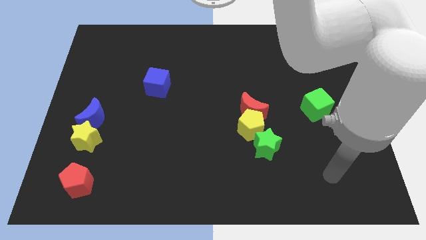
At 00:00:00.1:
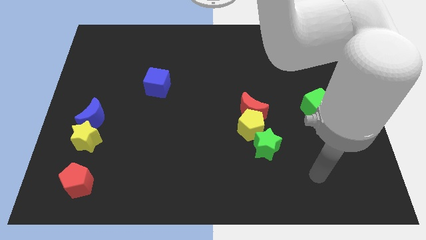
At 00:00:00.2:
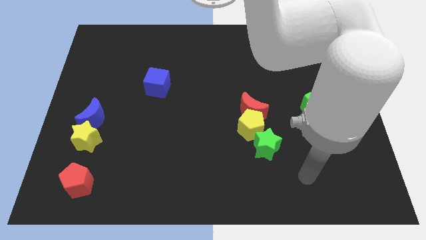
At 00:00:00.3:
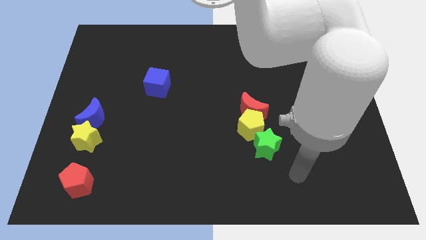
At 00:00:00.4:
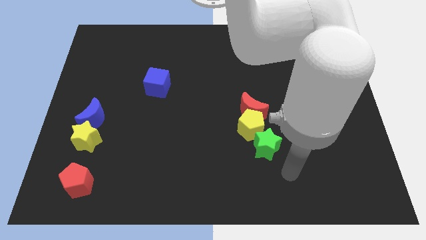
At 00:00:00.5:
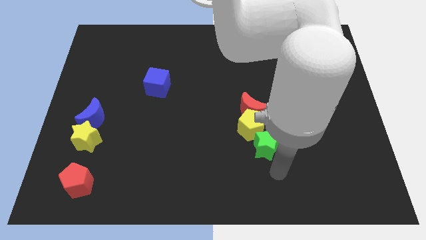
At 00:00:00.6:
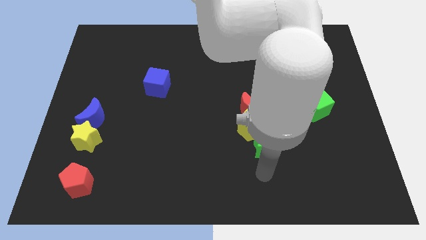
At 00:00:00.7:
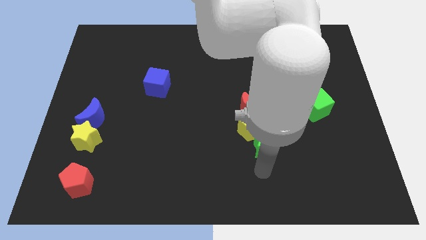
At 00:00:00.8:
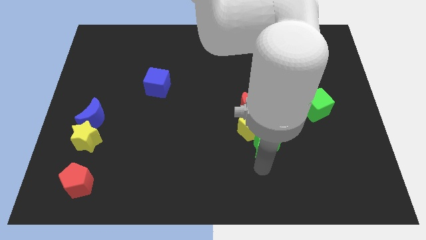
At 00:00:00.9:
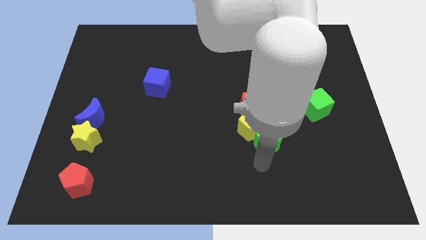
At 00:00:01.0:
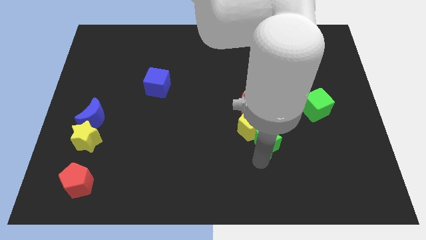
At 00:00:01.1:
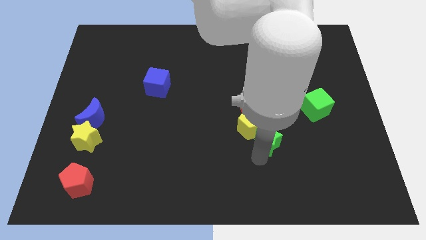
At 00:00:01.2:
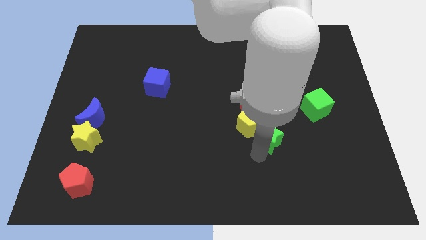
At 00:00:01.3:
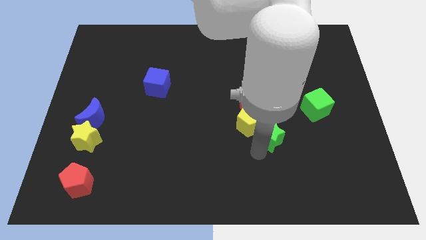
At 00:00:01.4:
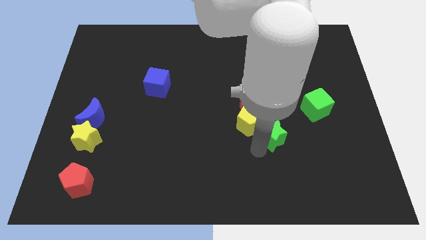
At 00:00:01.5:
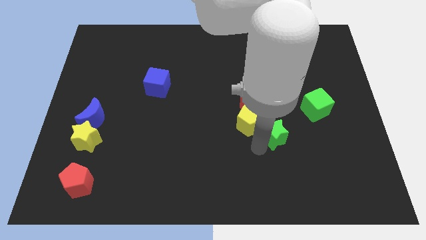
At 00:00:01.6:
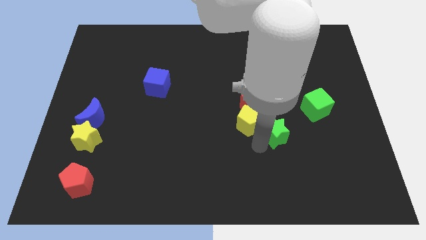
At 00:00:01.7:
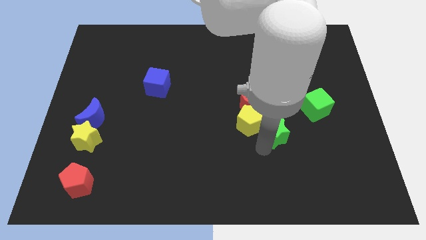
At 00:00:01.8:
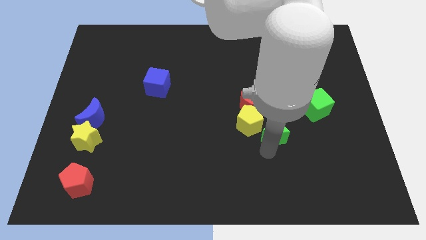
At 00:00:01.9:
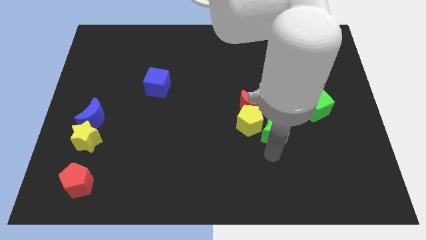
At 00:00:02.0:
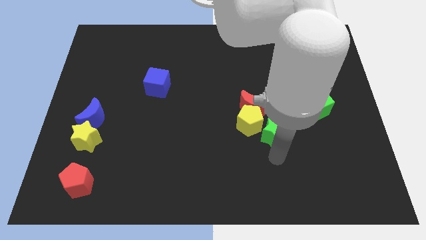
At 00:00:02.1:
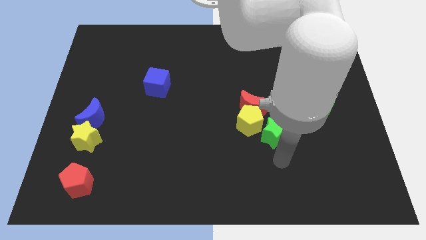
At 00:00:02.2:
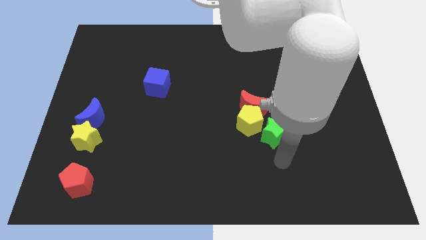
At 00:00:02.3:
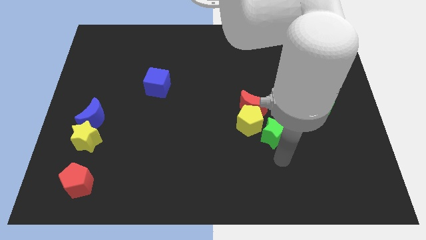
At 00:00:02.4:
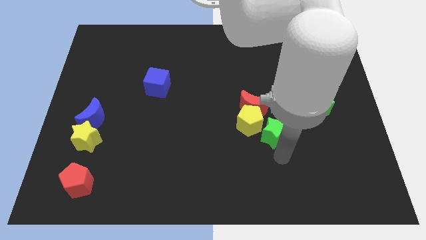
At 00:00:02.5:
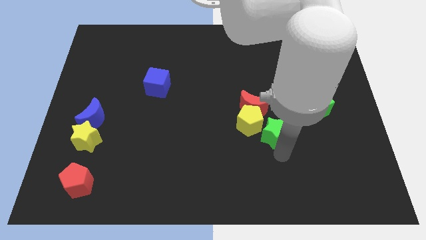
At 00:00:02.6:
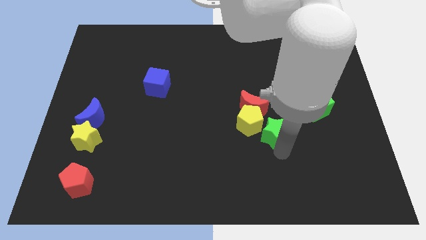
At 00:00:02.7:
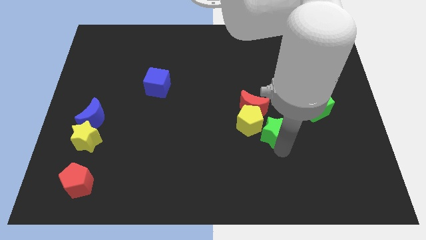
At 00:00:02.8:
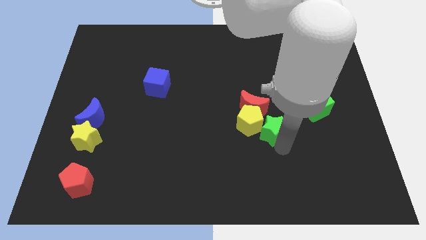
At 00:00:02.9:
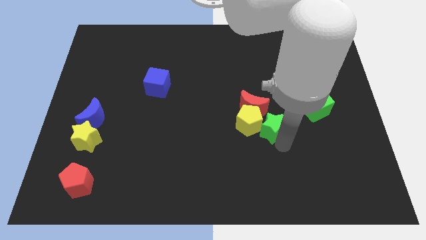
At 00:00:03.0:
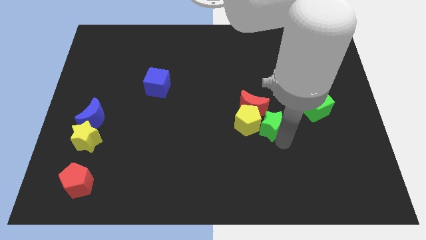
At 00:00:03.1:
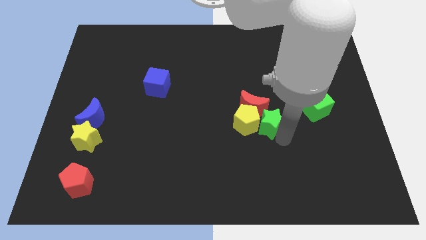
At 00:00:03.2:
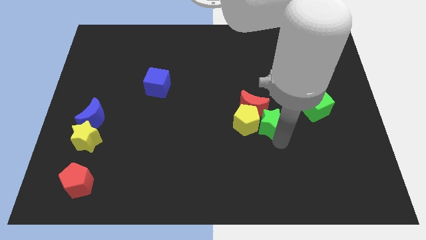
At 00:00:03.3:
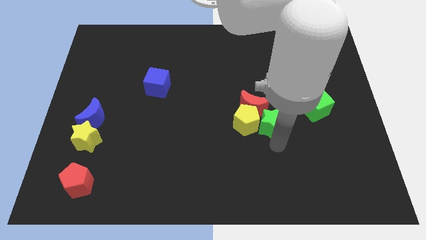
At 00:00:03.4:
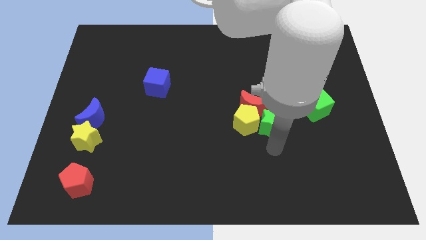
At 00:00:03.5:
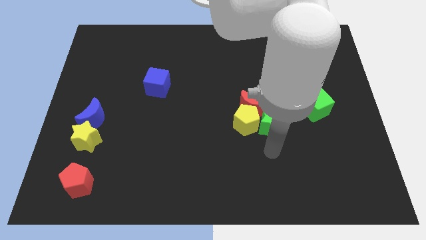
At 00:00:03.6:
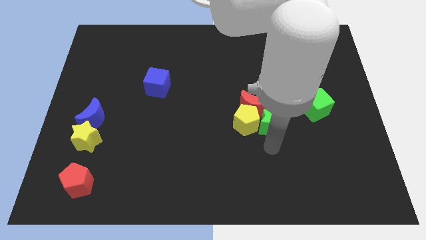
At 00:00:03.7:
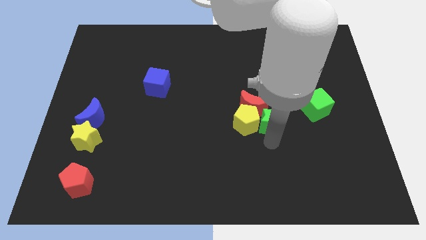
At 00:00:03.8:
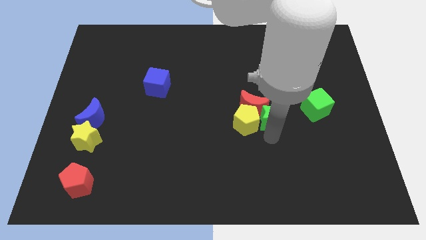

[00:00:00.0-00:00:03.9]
slightly move the green star up

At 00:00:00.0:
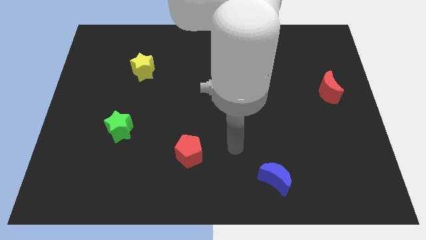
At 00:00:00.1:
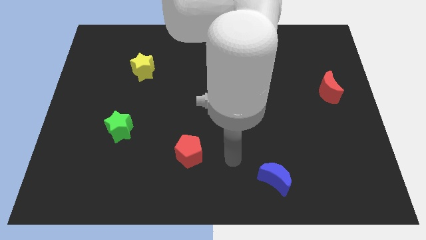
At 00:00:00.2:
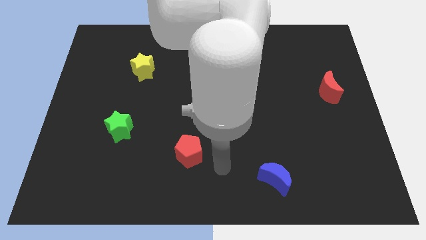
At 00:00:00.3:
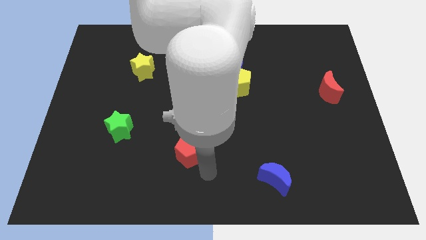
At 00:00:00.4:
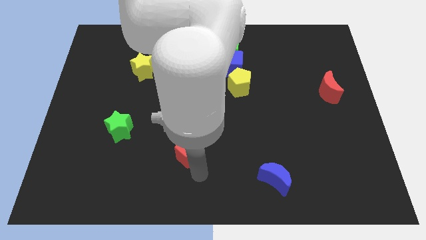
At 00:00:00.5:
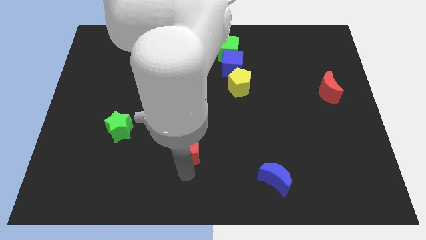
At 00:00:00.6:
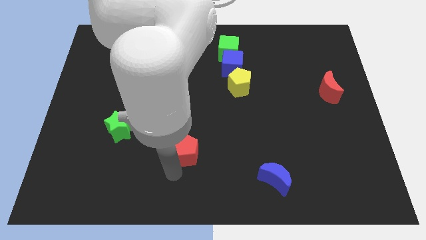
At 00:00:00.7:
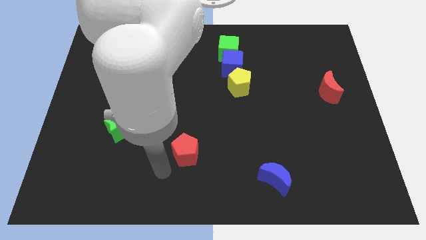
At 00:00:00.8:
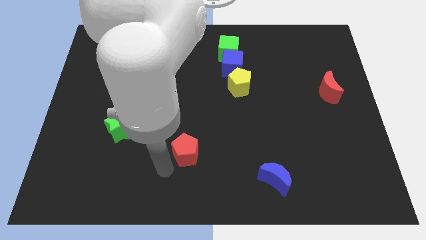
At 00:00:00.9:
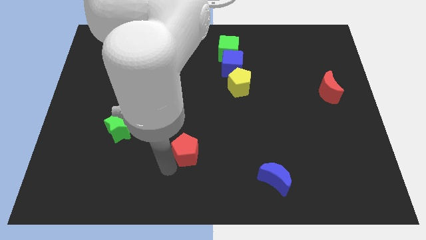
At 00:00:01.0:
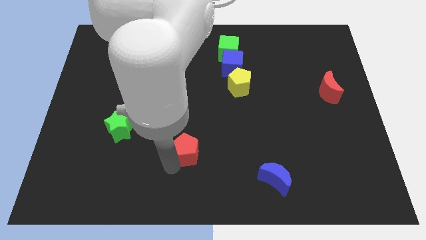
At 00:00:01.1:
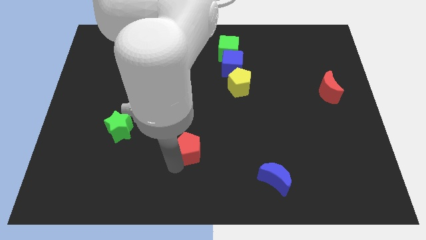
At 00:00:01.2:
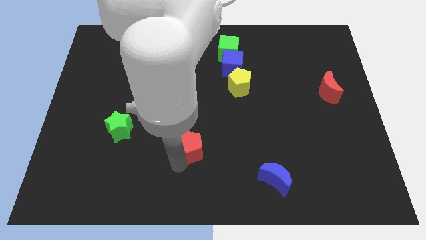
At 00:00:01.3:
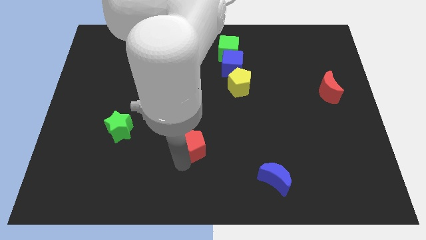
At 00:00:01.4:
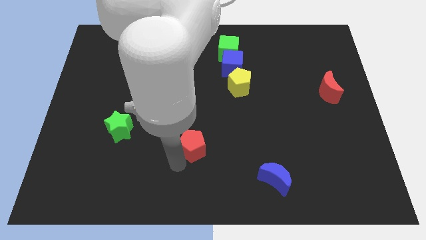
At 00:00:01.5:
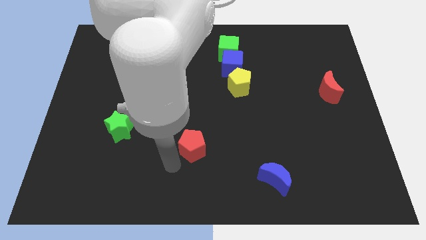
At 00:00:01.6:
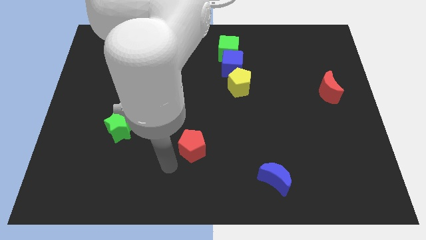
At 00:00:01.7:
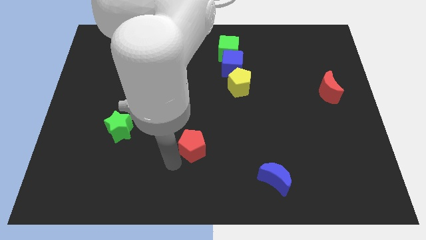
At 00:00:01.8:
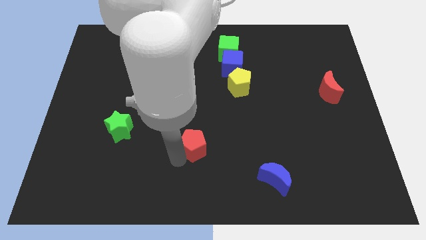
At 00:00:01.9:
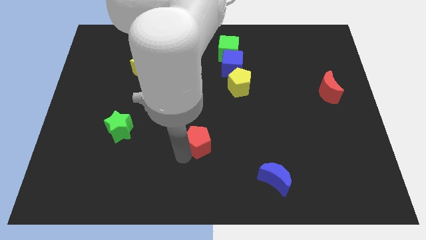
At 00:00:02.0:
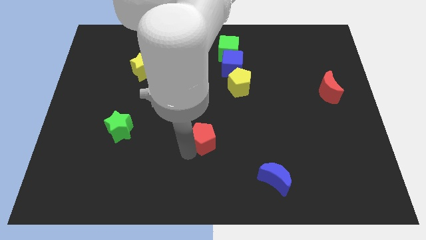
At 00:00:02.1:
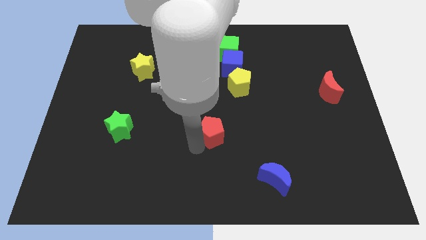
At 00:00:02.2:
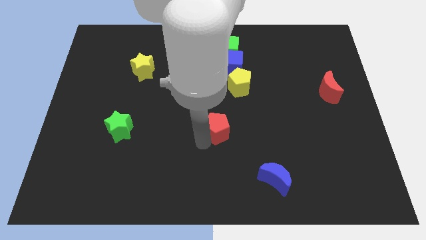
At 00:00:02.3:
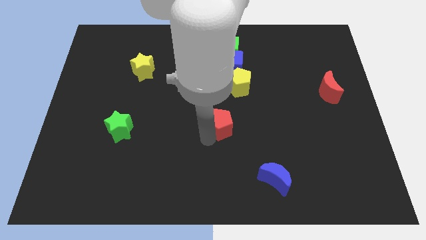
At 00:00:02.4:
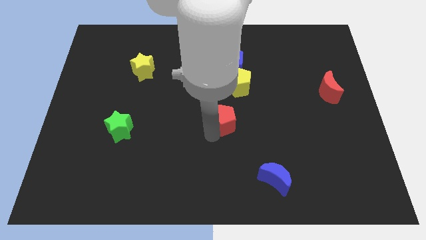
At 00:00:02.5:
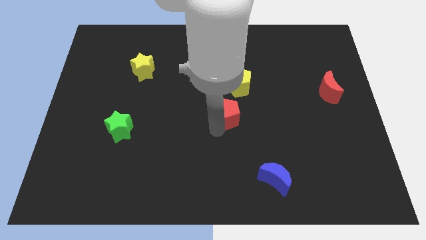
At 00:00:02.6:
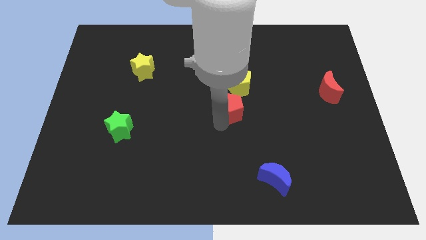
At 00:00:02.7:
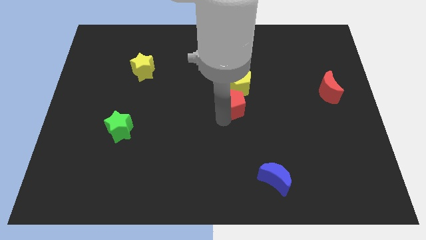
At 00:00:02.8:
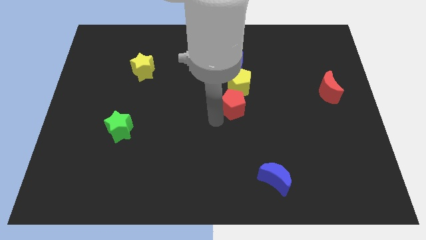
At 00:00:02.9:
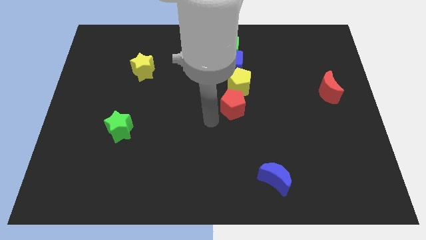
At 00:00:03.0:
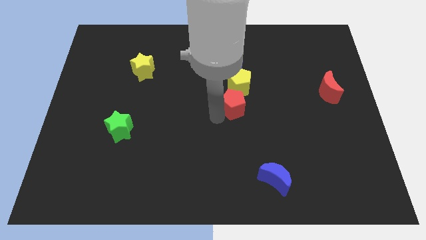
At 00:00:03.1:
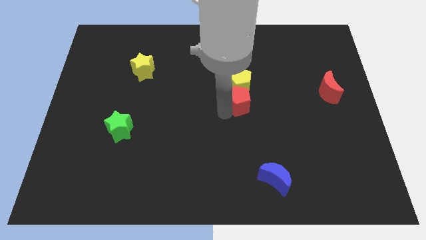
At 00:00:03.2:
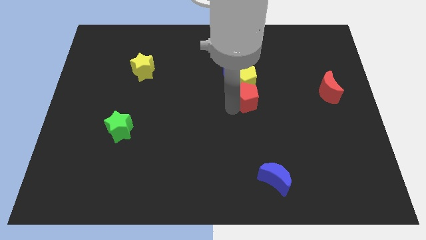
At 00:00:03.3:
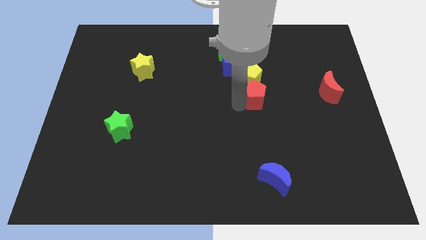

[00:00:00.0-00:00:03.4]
move the red pentagon up and to the right

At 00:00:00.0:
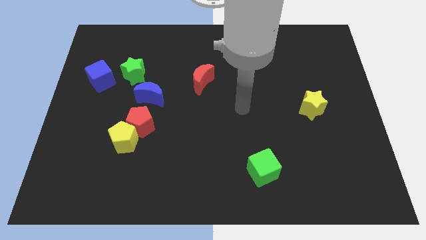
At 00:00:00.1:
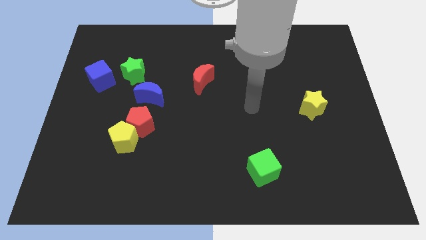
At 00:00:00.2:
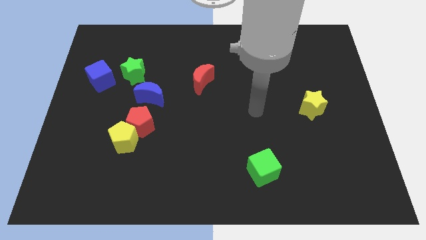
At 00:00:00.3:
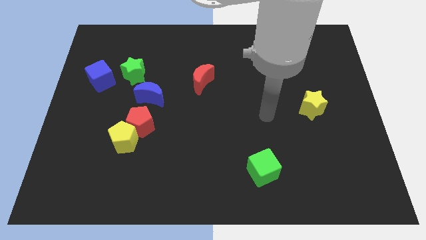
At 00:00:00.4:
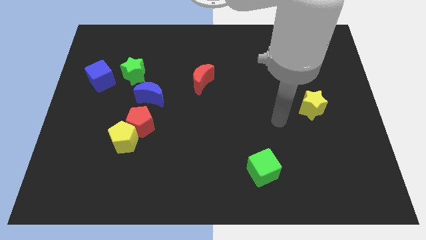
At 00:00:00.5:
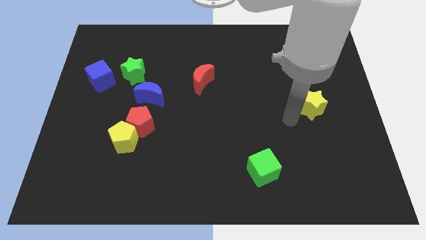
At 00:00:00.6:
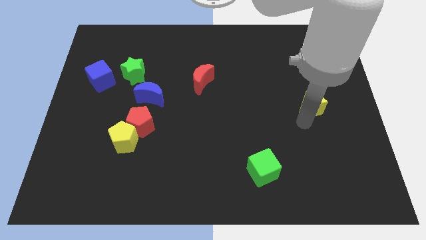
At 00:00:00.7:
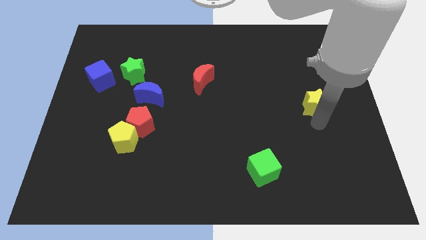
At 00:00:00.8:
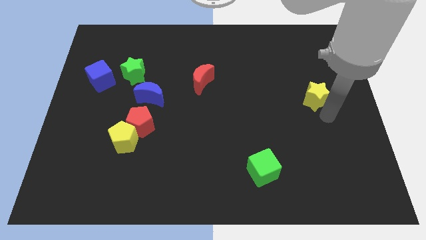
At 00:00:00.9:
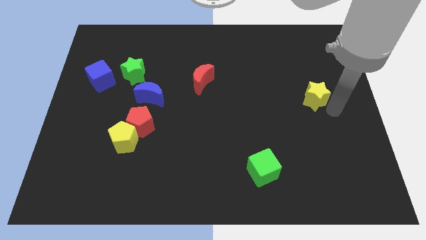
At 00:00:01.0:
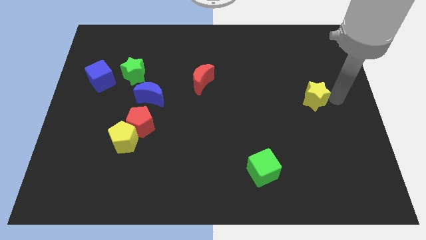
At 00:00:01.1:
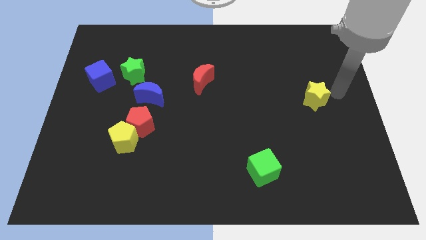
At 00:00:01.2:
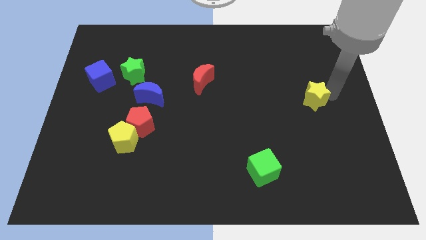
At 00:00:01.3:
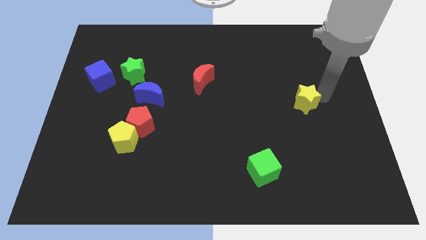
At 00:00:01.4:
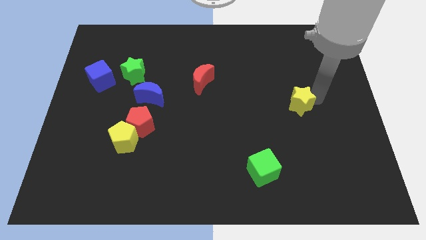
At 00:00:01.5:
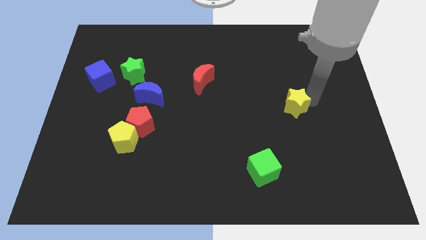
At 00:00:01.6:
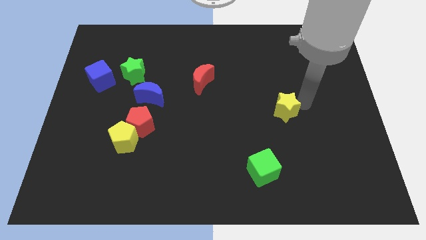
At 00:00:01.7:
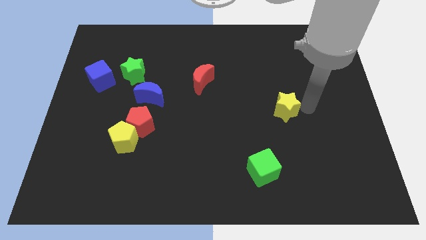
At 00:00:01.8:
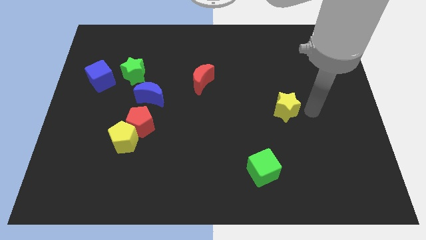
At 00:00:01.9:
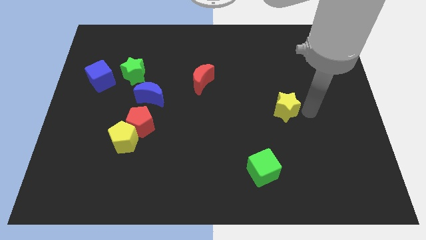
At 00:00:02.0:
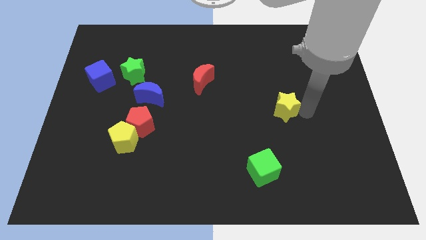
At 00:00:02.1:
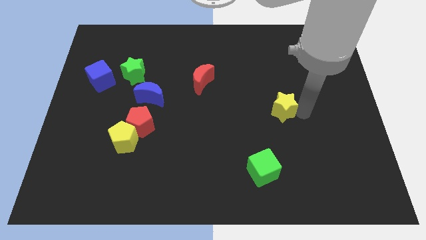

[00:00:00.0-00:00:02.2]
slightly move the yellow star to the left
